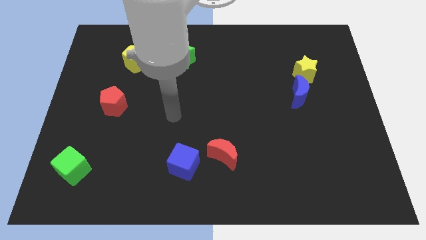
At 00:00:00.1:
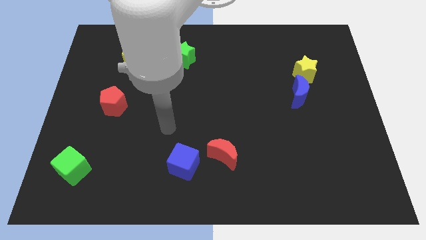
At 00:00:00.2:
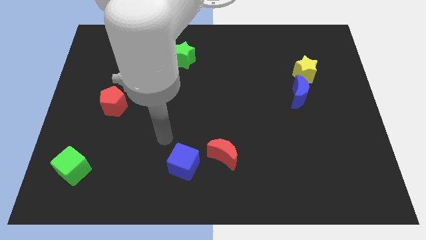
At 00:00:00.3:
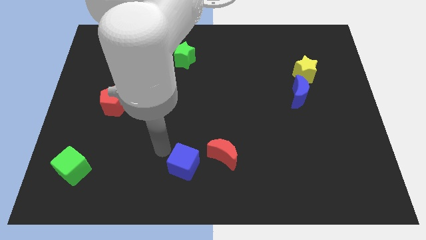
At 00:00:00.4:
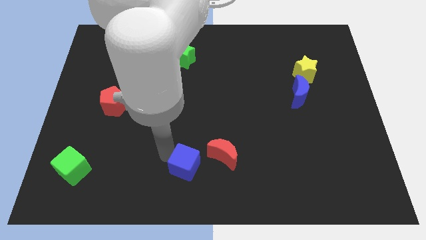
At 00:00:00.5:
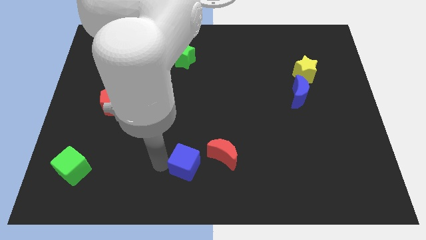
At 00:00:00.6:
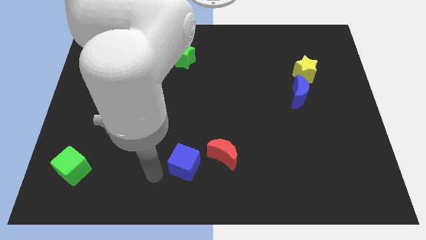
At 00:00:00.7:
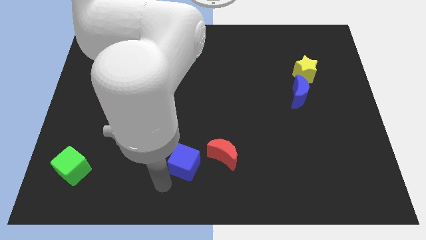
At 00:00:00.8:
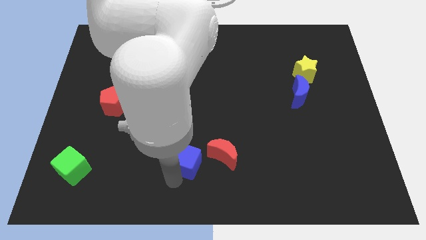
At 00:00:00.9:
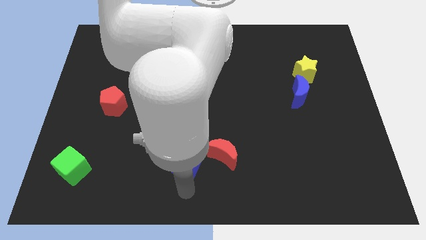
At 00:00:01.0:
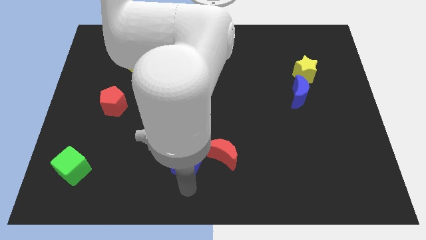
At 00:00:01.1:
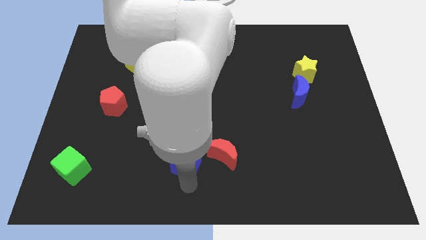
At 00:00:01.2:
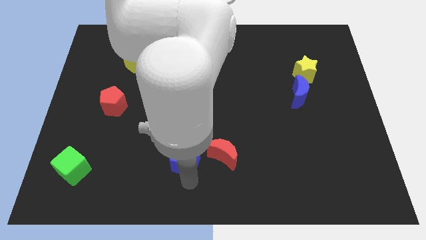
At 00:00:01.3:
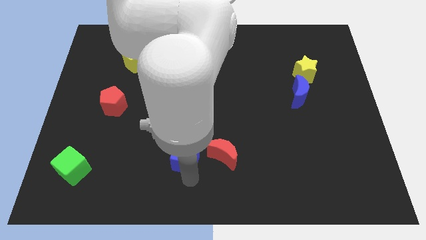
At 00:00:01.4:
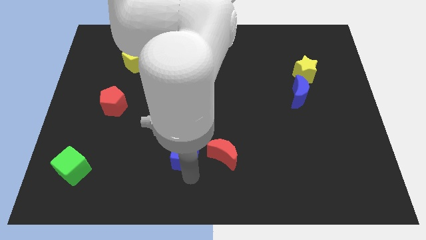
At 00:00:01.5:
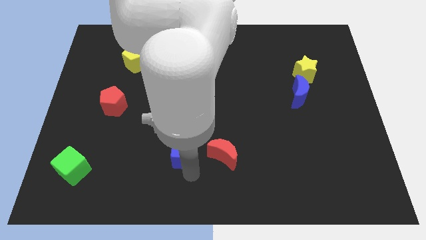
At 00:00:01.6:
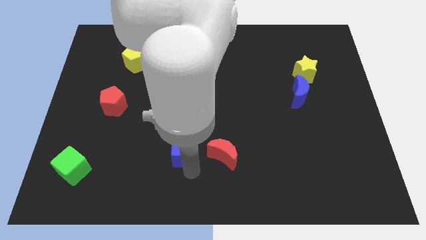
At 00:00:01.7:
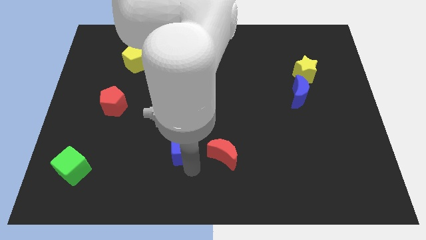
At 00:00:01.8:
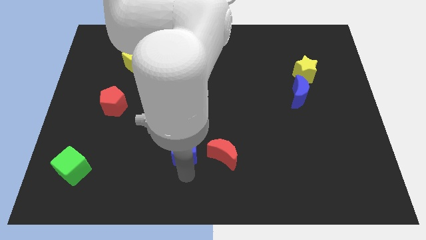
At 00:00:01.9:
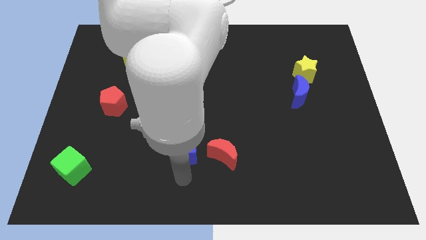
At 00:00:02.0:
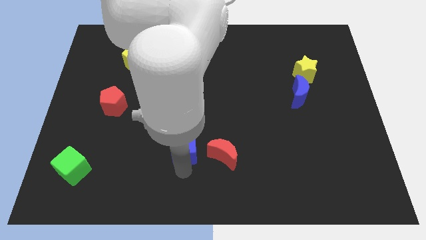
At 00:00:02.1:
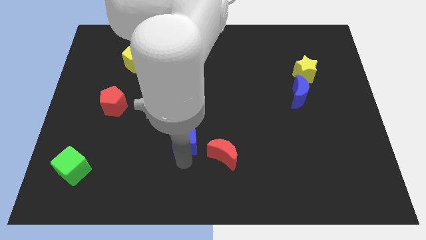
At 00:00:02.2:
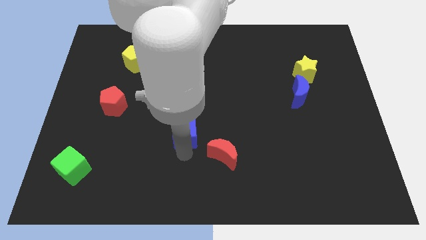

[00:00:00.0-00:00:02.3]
push the blue cube somewhat up

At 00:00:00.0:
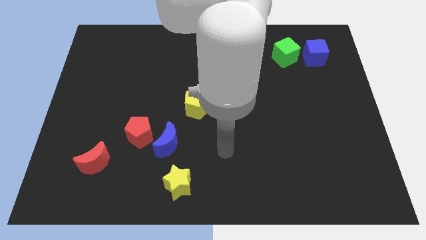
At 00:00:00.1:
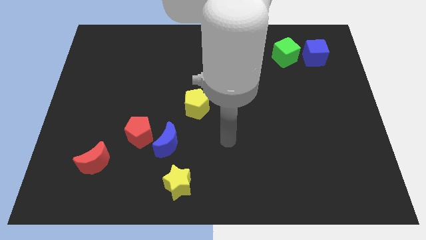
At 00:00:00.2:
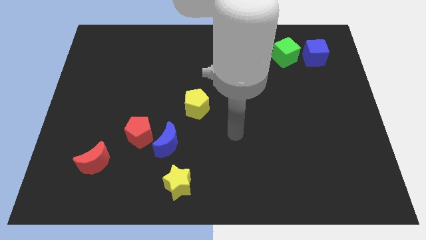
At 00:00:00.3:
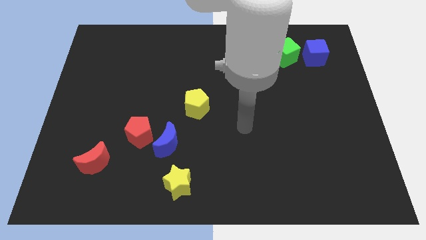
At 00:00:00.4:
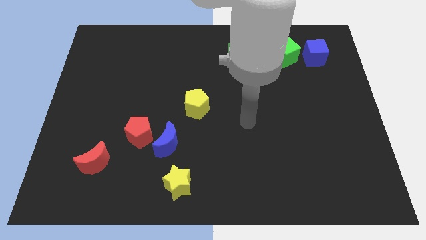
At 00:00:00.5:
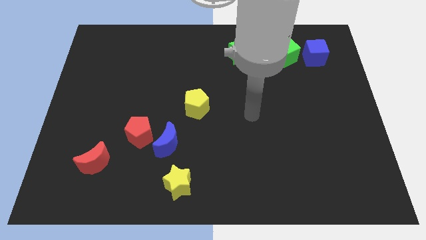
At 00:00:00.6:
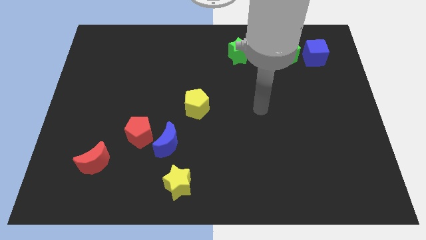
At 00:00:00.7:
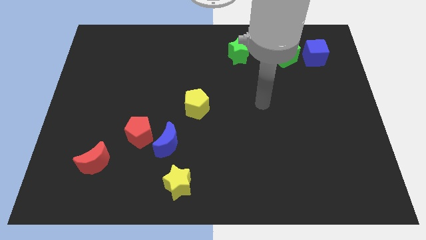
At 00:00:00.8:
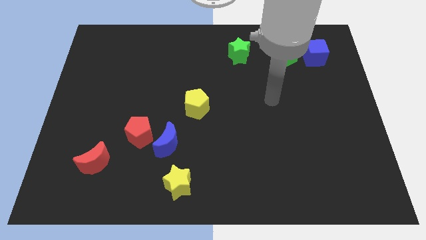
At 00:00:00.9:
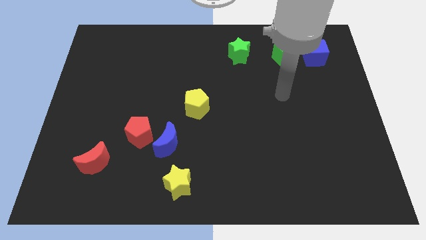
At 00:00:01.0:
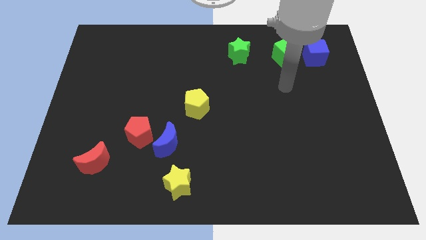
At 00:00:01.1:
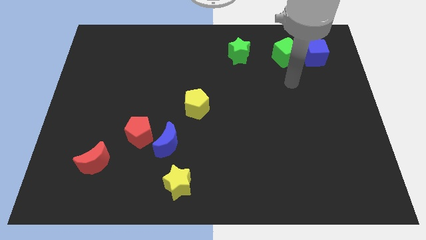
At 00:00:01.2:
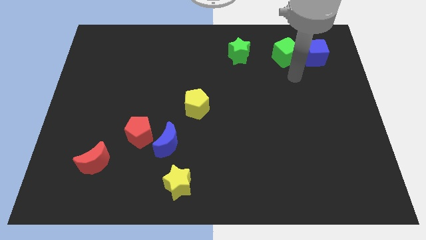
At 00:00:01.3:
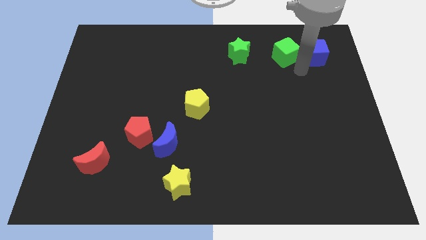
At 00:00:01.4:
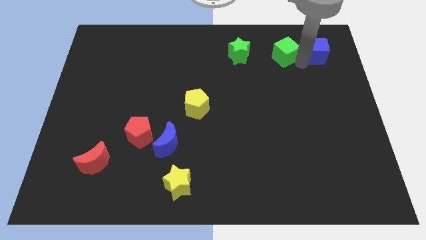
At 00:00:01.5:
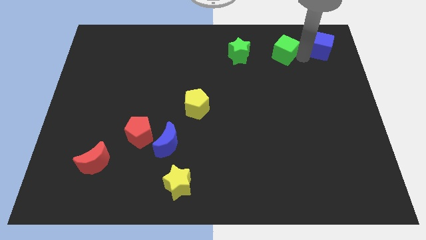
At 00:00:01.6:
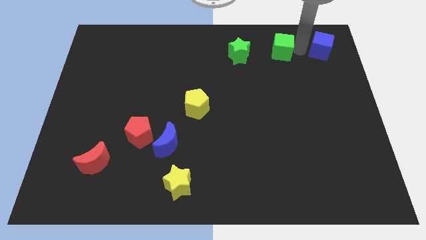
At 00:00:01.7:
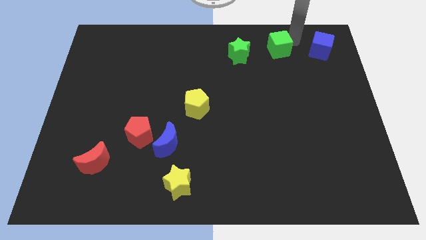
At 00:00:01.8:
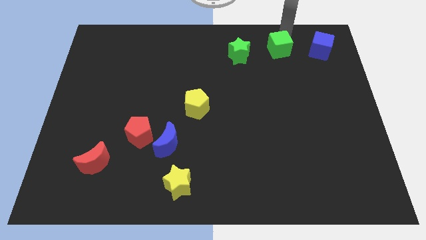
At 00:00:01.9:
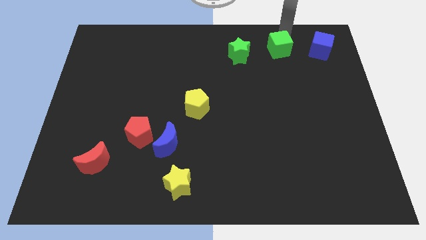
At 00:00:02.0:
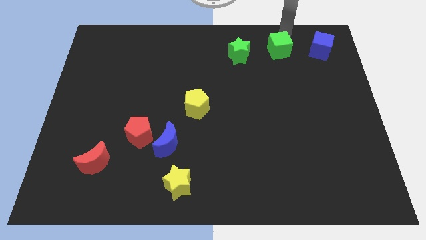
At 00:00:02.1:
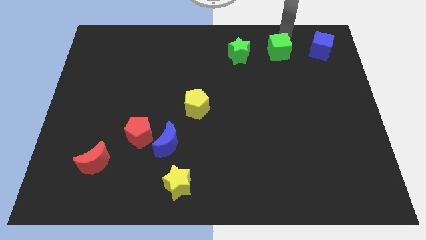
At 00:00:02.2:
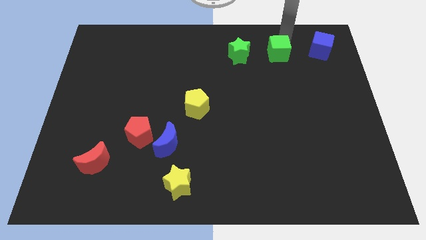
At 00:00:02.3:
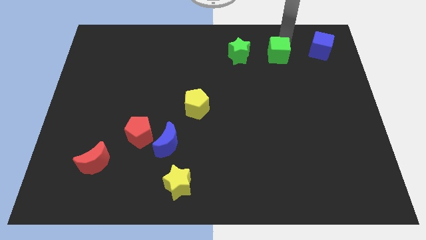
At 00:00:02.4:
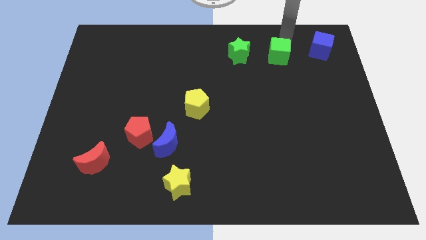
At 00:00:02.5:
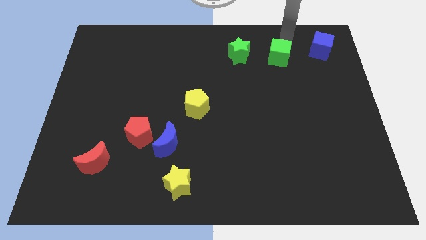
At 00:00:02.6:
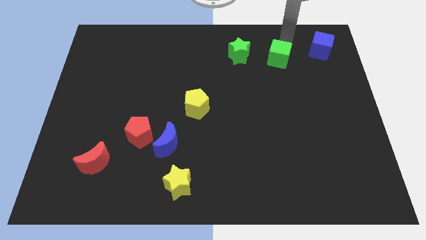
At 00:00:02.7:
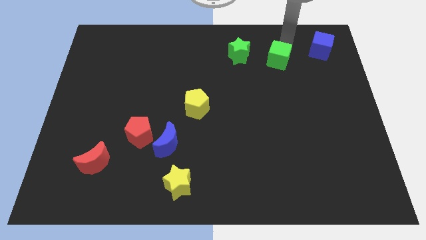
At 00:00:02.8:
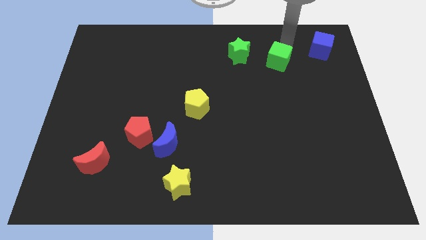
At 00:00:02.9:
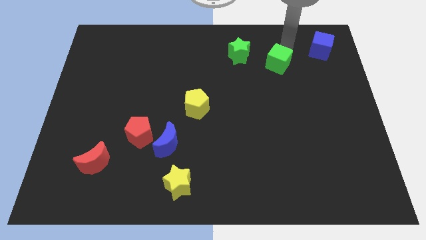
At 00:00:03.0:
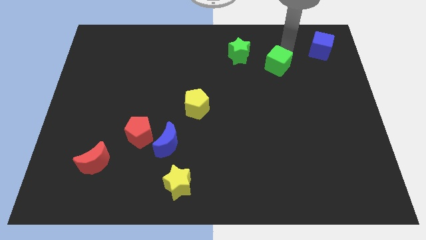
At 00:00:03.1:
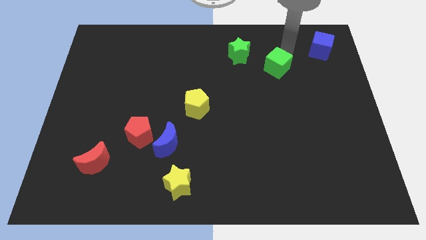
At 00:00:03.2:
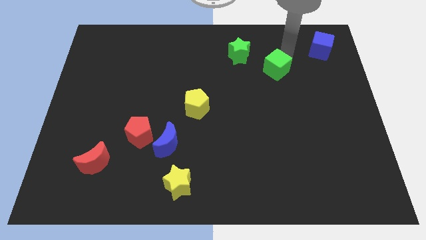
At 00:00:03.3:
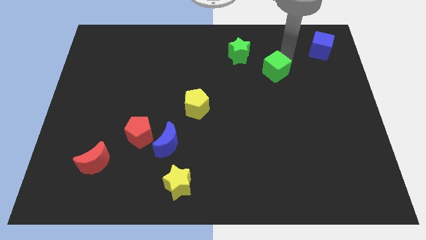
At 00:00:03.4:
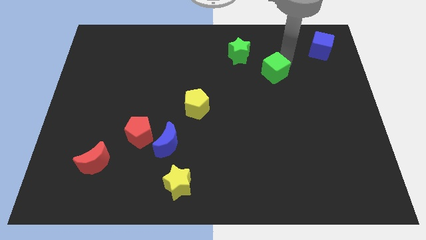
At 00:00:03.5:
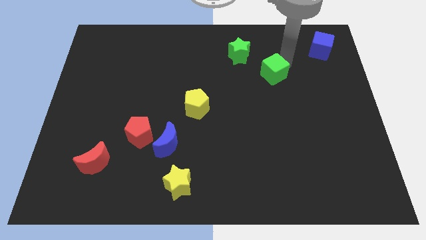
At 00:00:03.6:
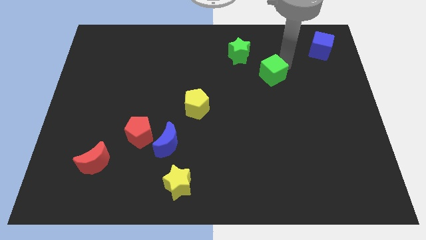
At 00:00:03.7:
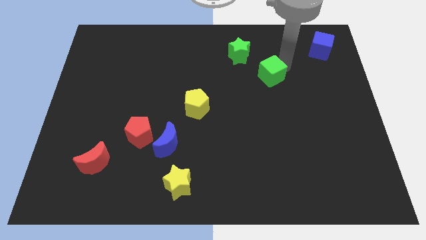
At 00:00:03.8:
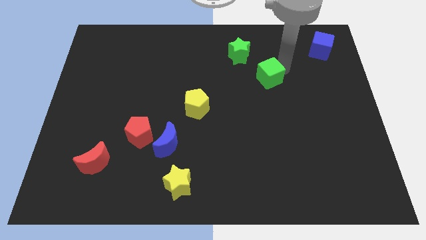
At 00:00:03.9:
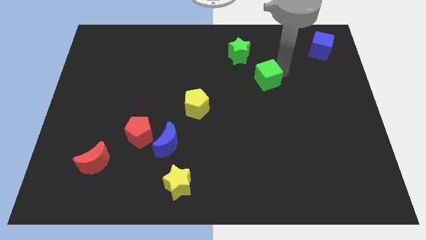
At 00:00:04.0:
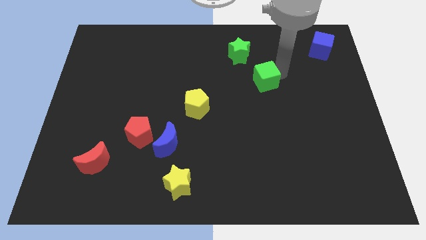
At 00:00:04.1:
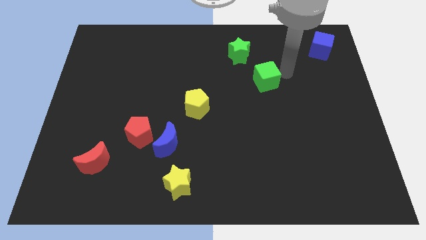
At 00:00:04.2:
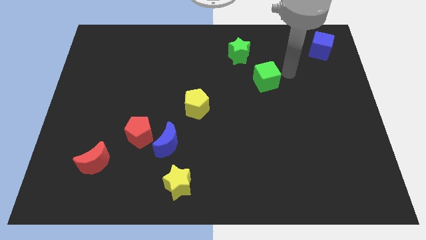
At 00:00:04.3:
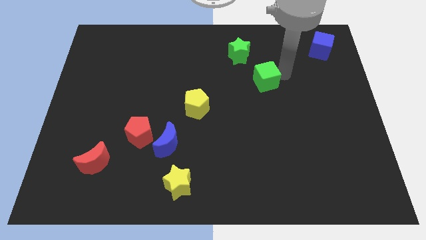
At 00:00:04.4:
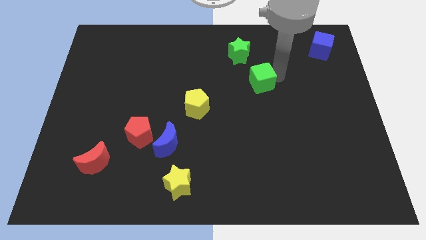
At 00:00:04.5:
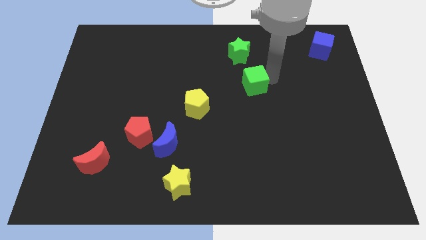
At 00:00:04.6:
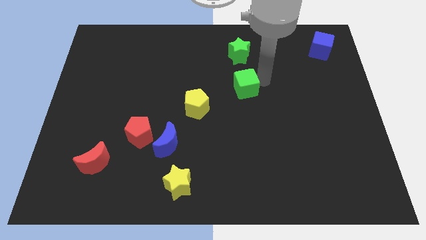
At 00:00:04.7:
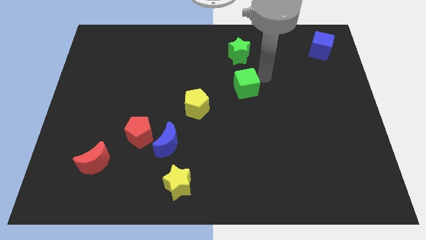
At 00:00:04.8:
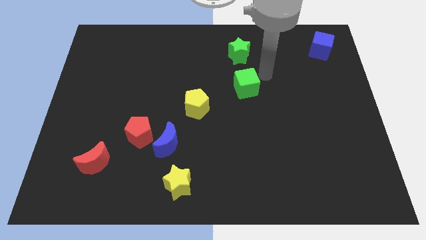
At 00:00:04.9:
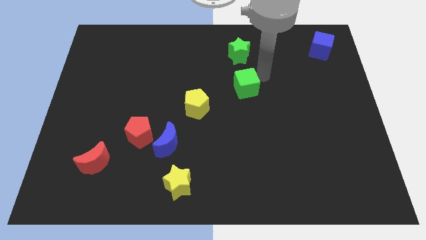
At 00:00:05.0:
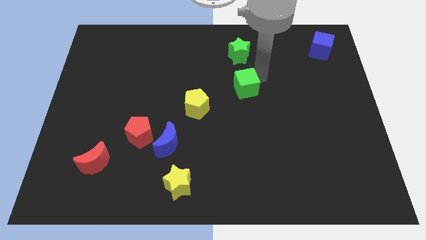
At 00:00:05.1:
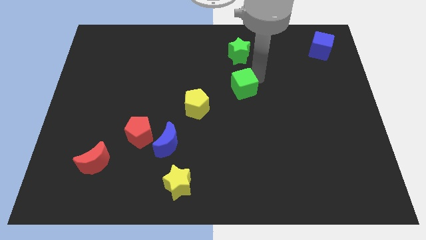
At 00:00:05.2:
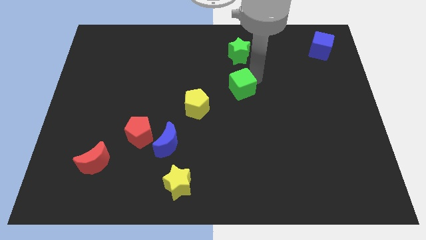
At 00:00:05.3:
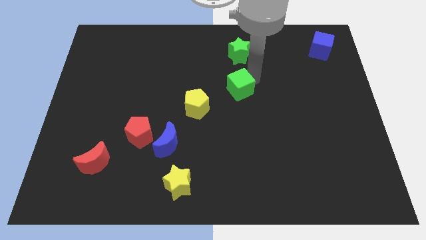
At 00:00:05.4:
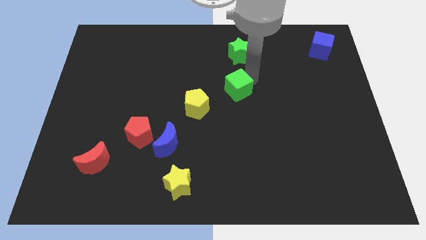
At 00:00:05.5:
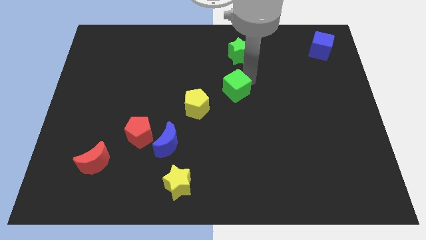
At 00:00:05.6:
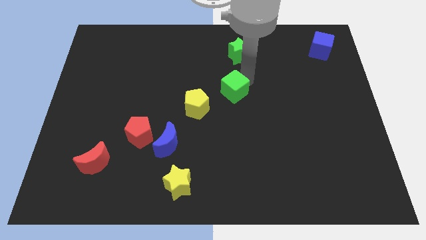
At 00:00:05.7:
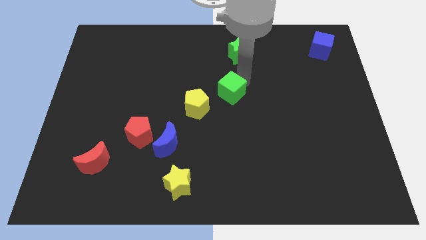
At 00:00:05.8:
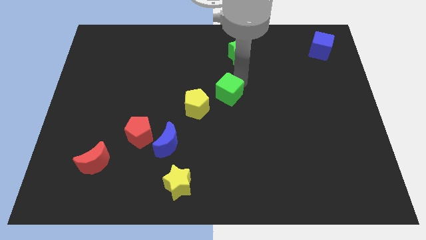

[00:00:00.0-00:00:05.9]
move the green cube down and then left
